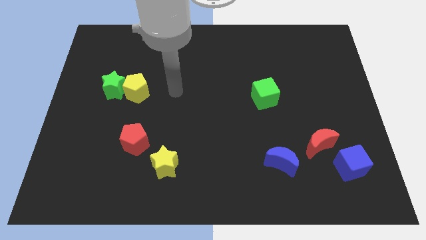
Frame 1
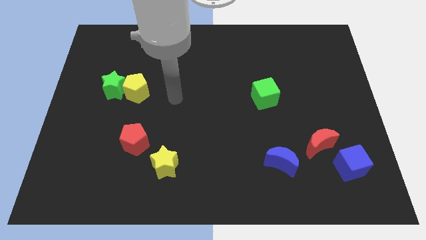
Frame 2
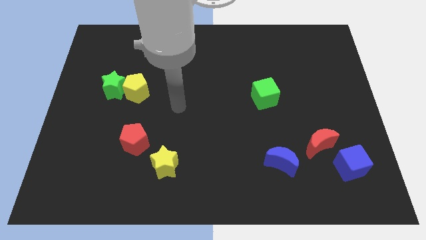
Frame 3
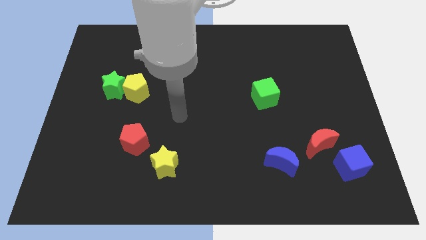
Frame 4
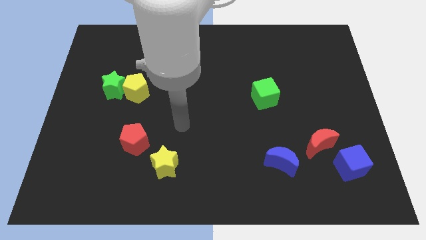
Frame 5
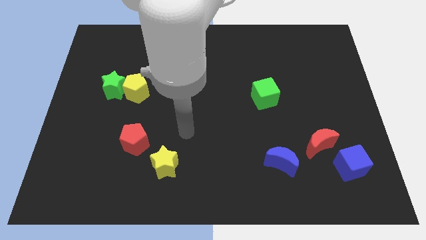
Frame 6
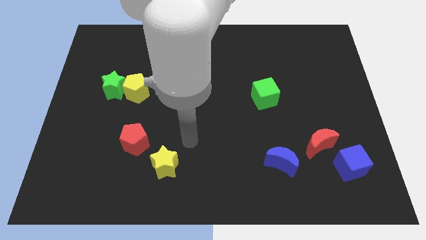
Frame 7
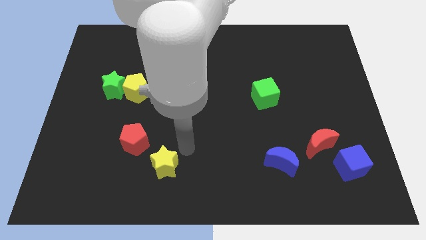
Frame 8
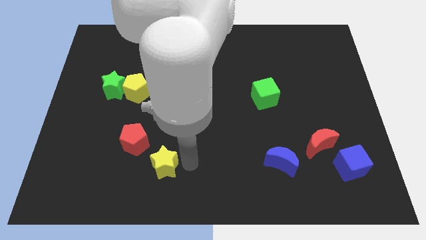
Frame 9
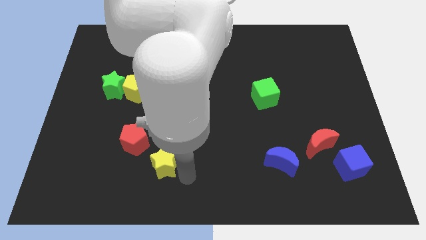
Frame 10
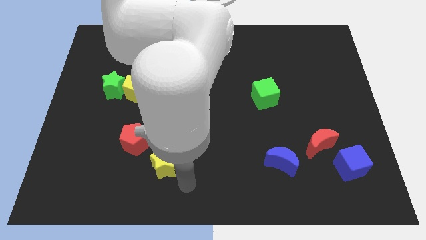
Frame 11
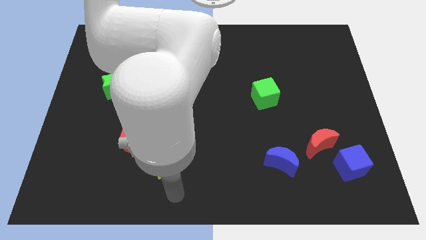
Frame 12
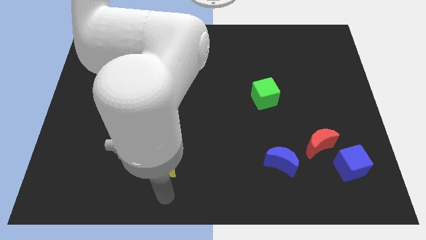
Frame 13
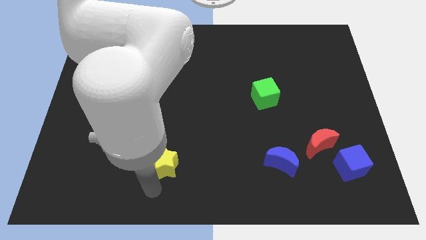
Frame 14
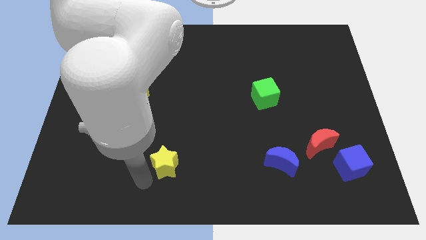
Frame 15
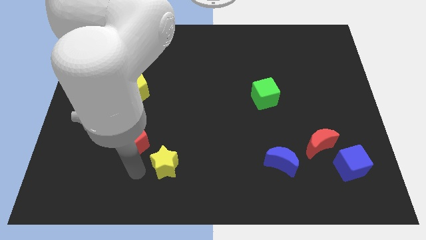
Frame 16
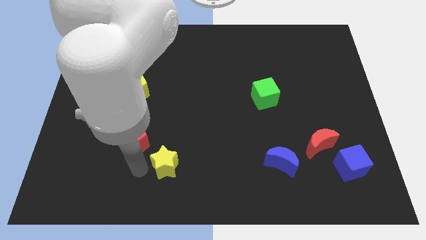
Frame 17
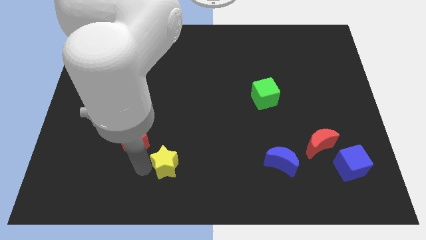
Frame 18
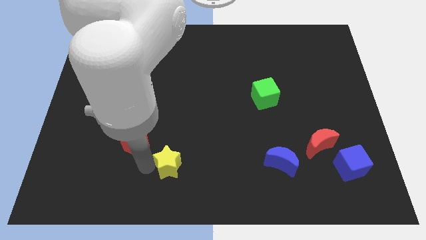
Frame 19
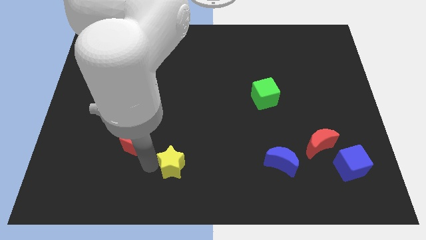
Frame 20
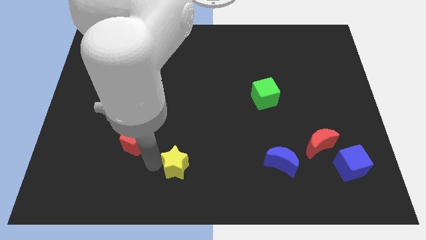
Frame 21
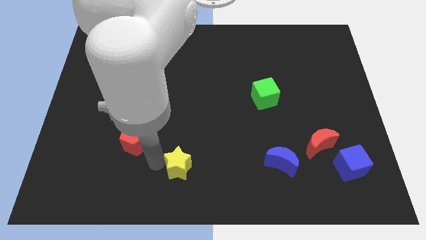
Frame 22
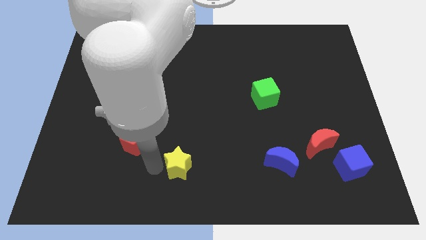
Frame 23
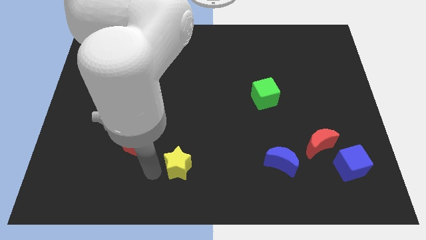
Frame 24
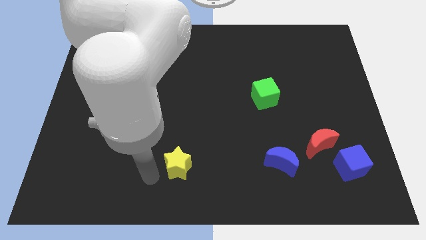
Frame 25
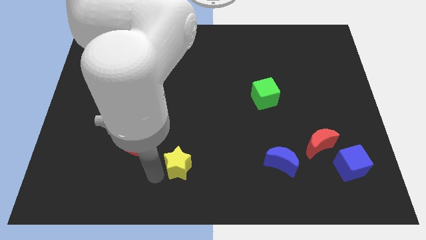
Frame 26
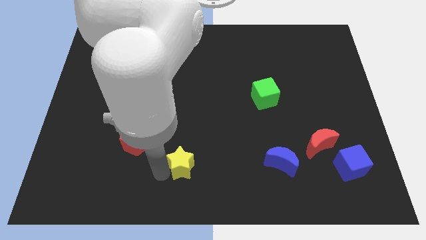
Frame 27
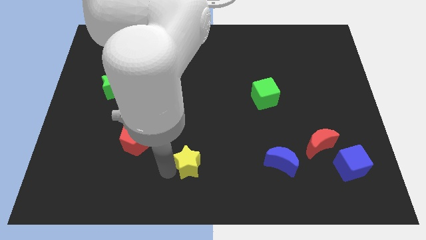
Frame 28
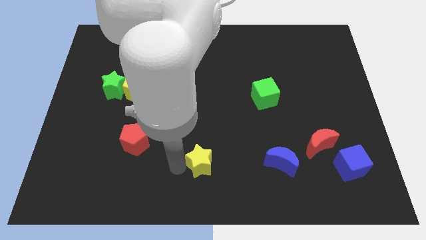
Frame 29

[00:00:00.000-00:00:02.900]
move the yellow star somewhat right

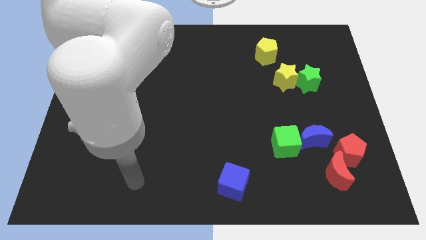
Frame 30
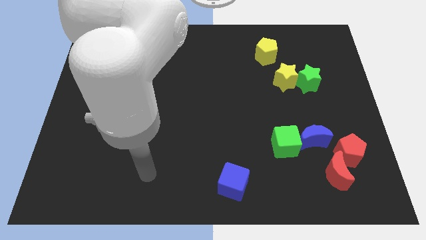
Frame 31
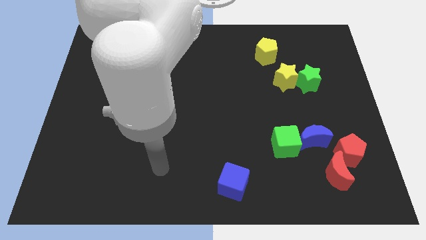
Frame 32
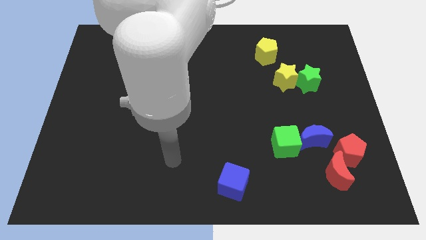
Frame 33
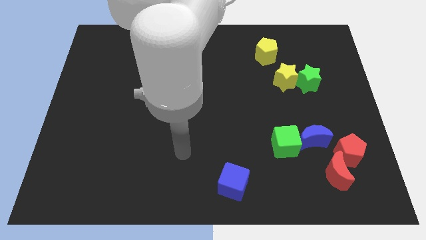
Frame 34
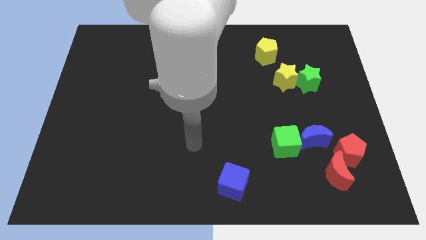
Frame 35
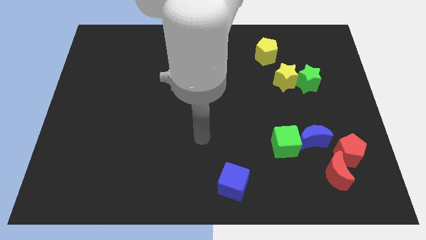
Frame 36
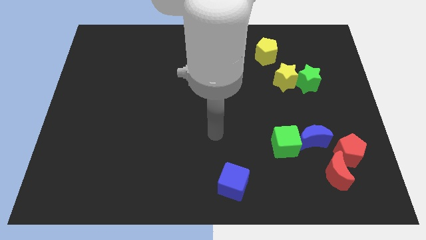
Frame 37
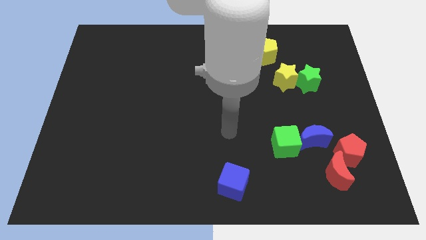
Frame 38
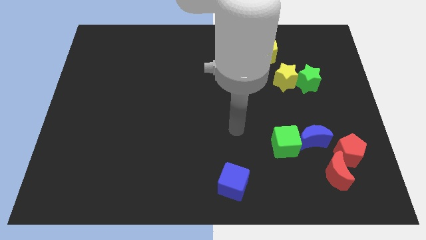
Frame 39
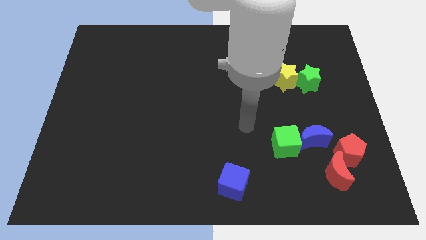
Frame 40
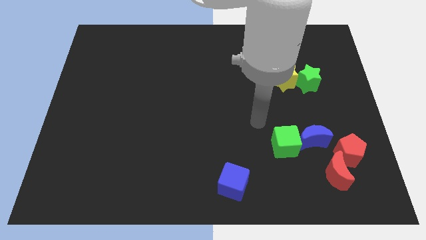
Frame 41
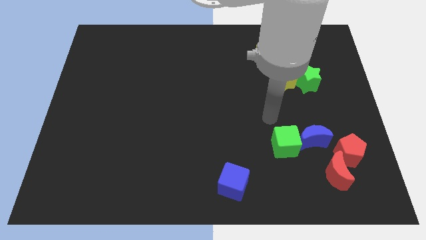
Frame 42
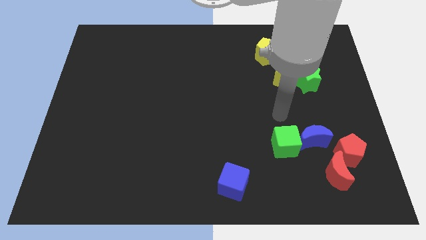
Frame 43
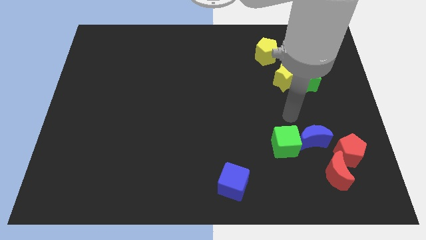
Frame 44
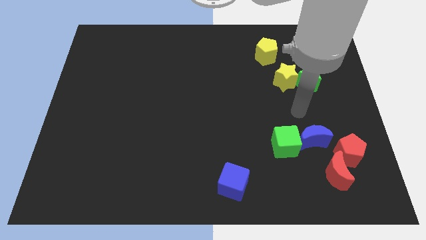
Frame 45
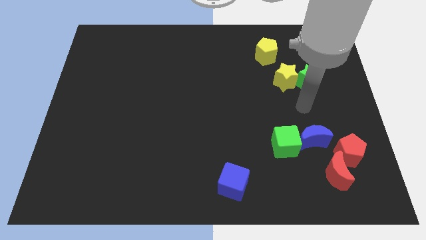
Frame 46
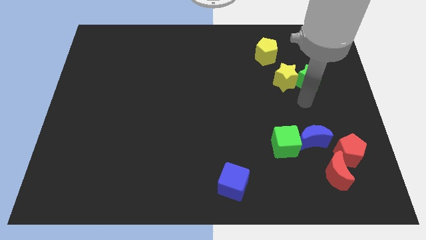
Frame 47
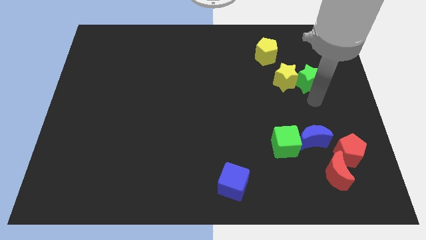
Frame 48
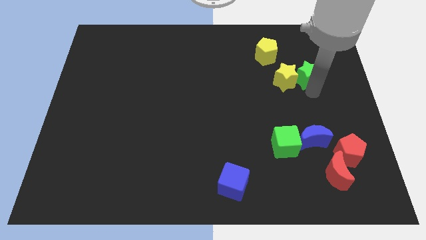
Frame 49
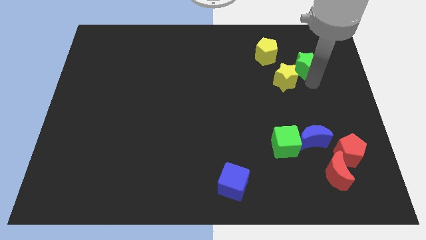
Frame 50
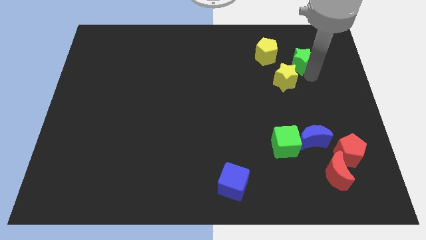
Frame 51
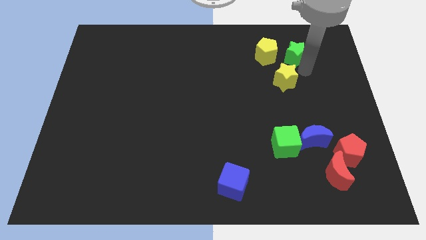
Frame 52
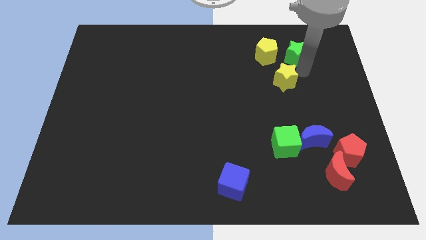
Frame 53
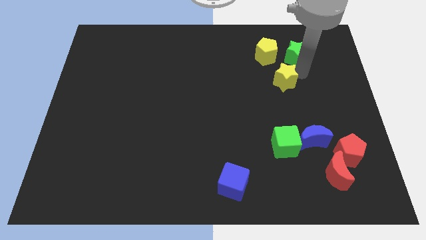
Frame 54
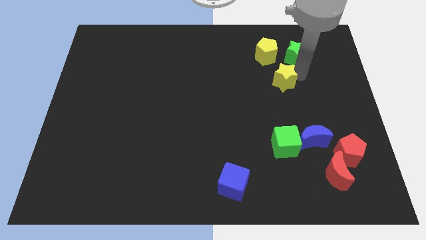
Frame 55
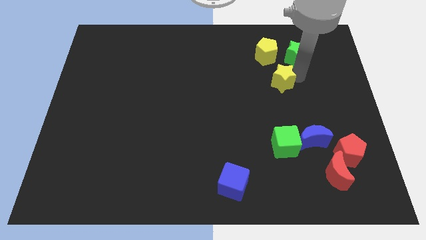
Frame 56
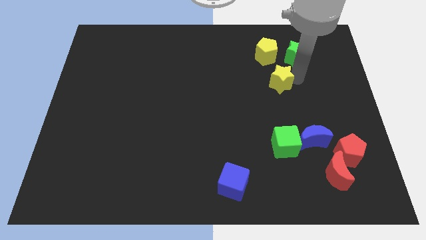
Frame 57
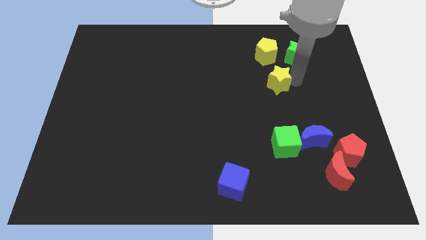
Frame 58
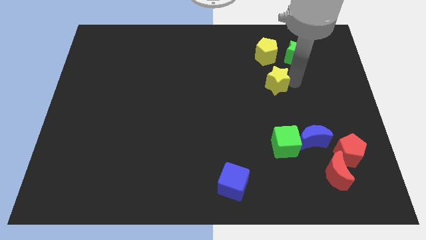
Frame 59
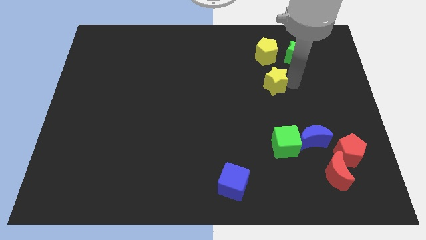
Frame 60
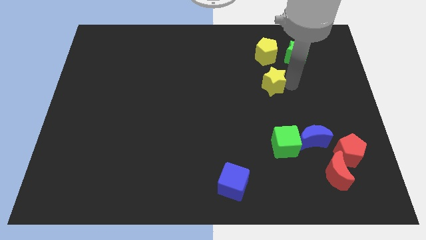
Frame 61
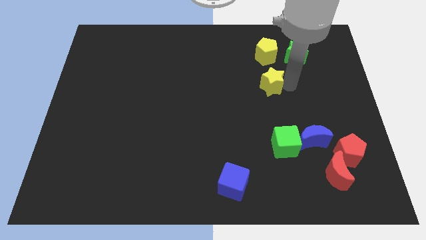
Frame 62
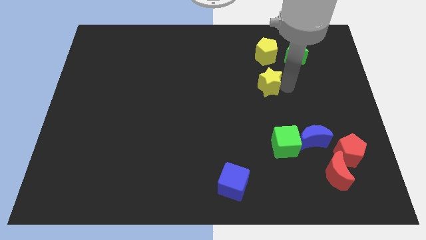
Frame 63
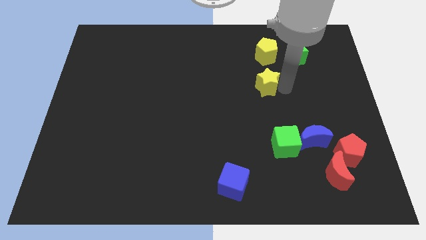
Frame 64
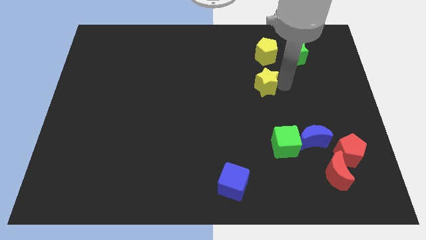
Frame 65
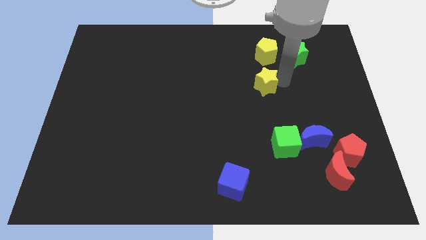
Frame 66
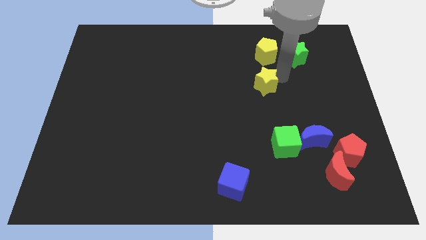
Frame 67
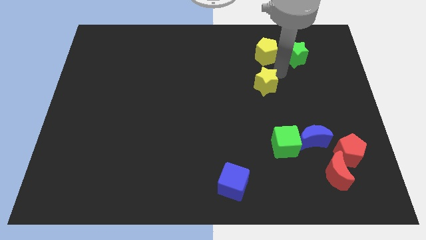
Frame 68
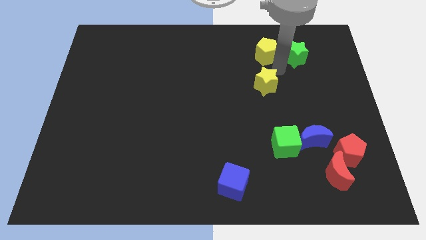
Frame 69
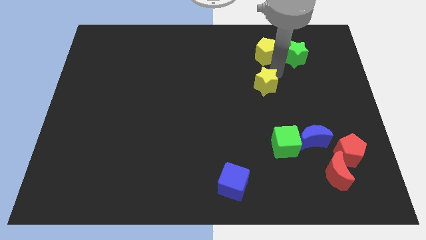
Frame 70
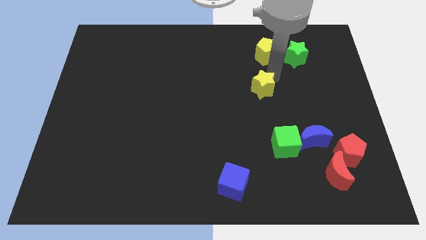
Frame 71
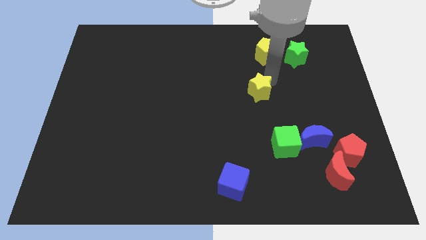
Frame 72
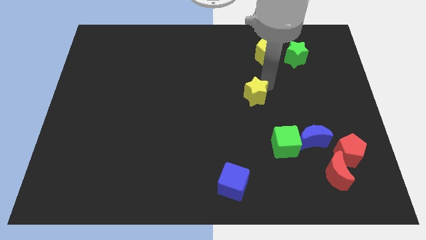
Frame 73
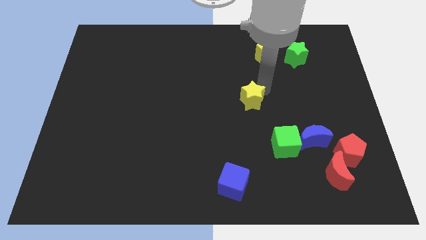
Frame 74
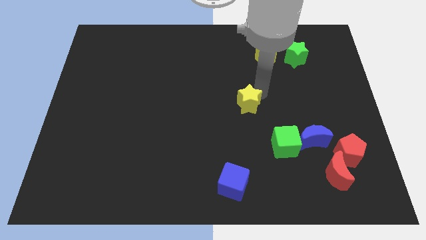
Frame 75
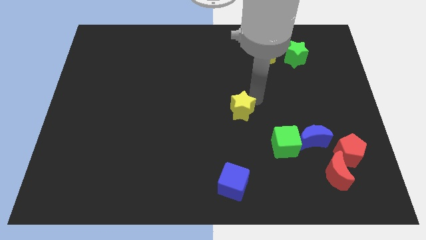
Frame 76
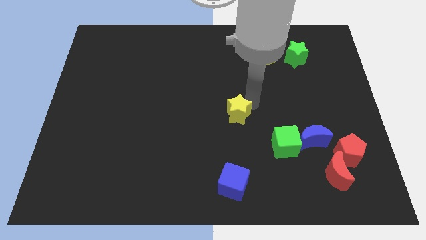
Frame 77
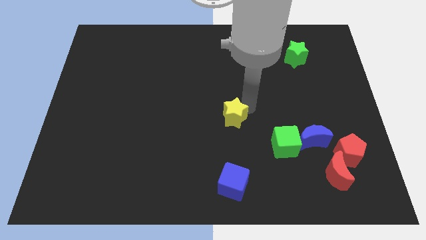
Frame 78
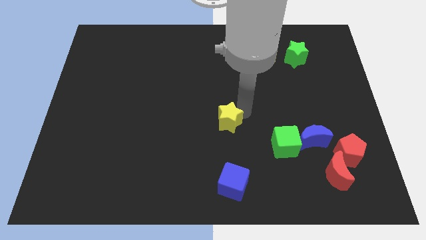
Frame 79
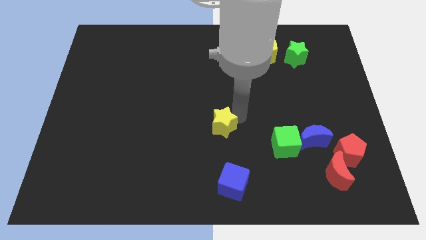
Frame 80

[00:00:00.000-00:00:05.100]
slide the yellow star down and then left
